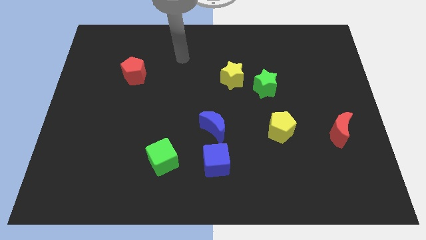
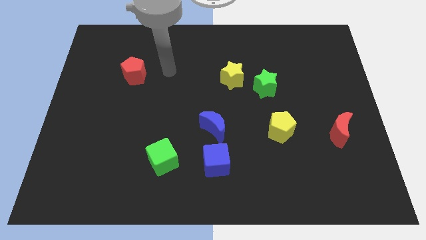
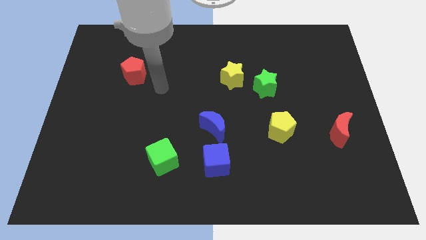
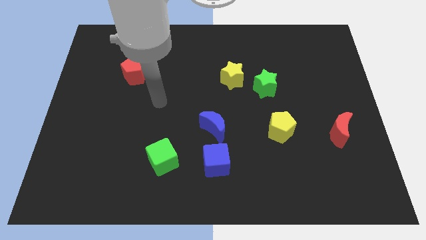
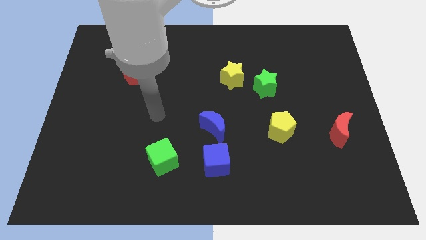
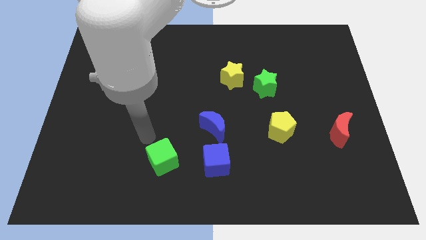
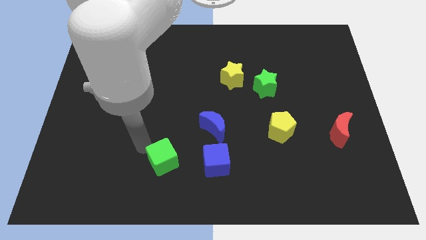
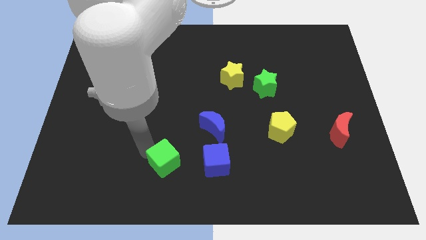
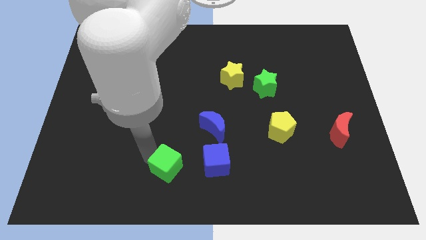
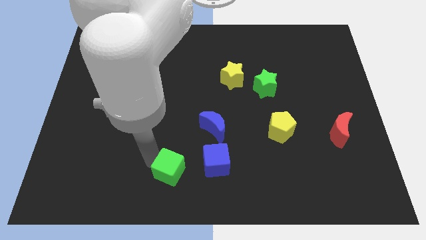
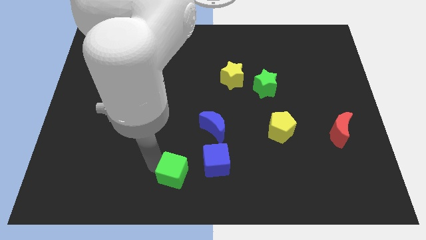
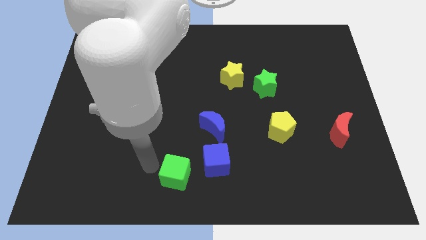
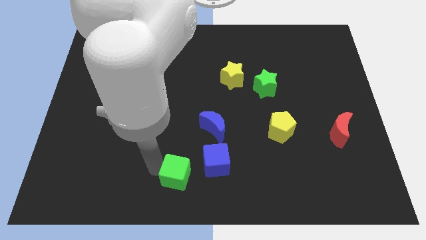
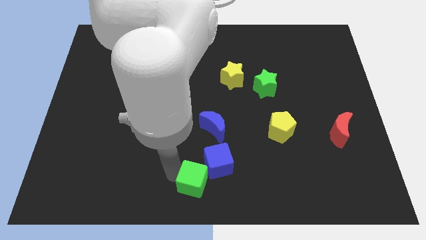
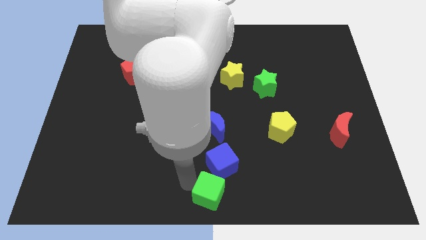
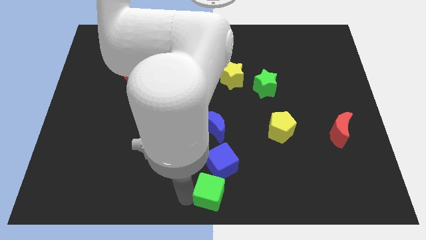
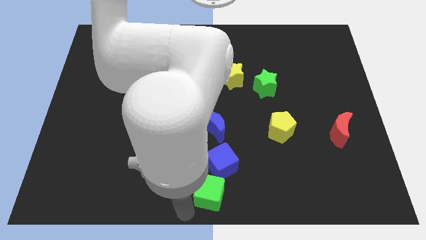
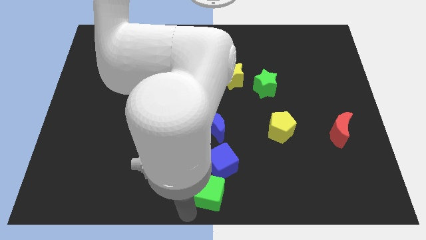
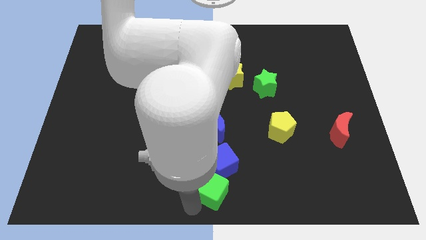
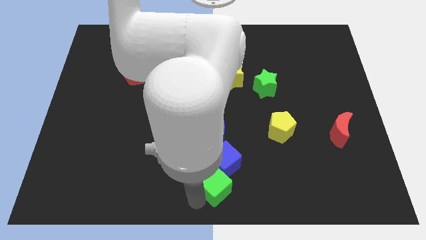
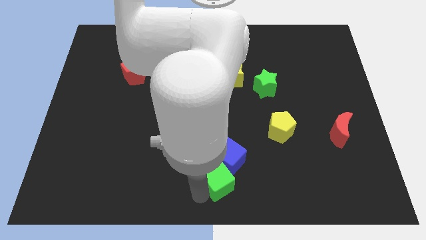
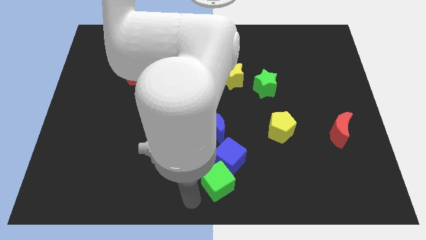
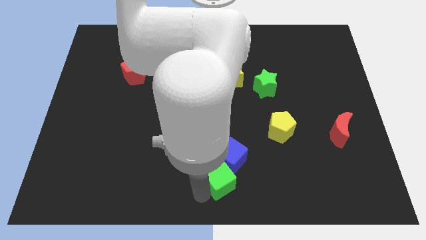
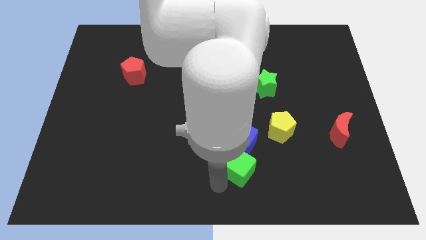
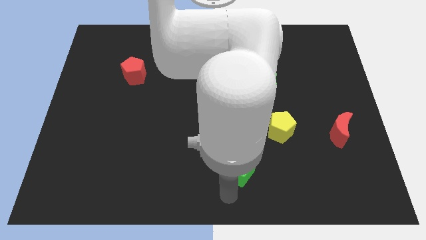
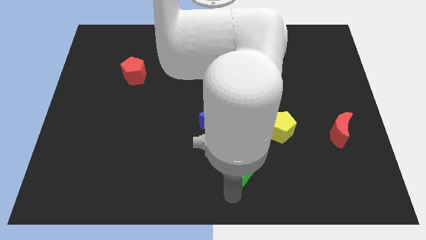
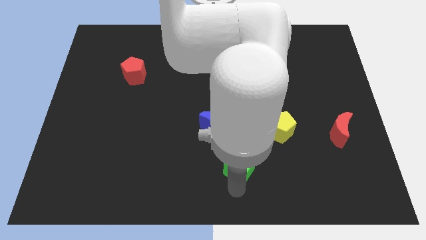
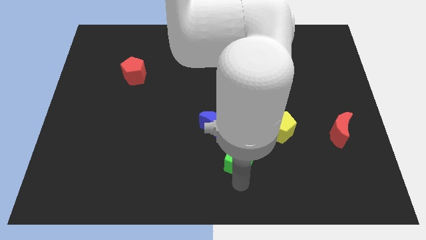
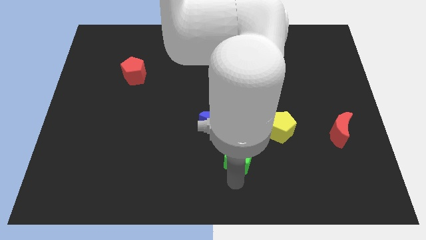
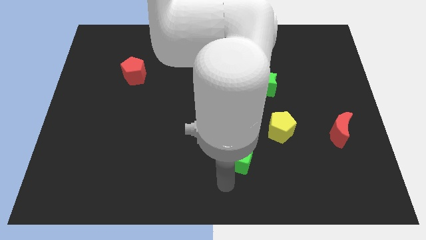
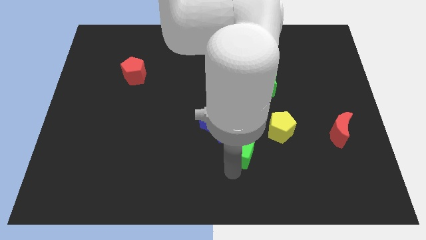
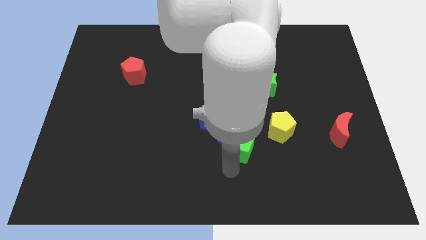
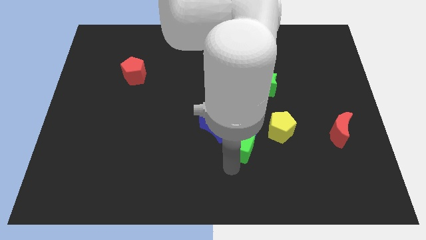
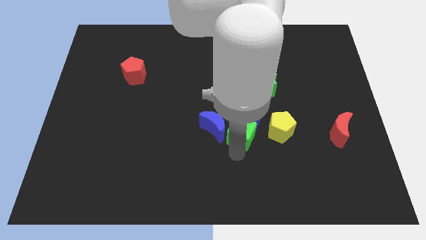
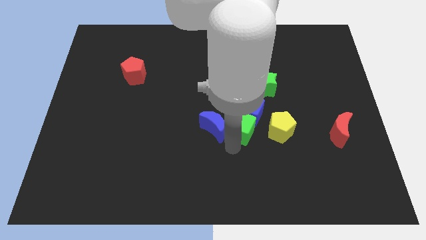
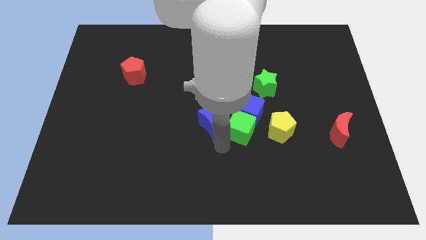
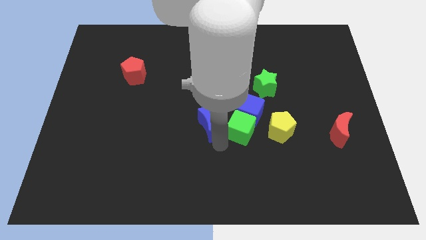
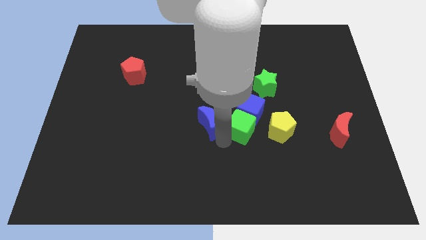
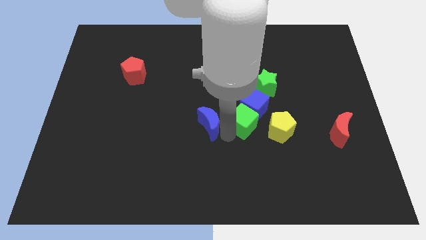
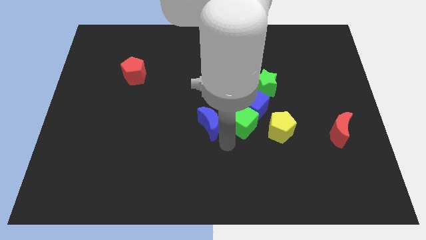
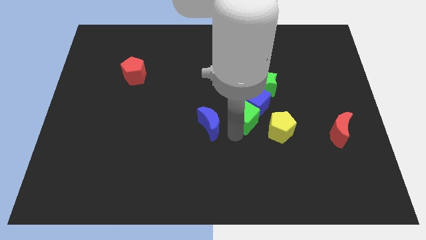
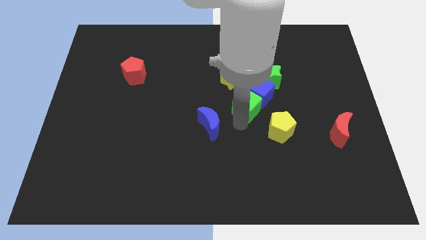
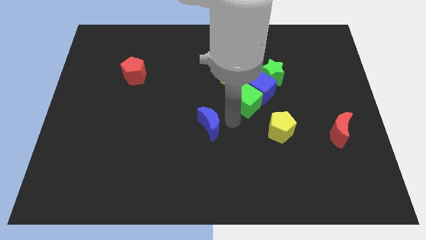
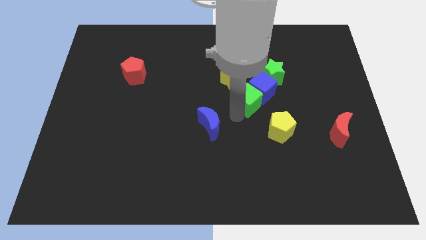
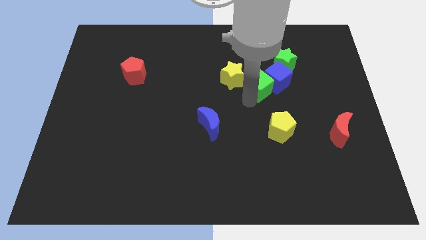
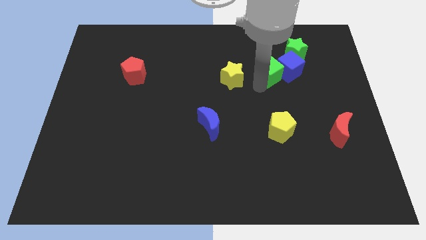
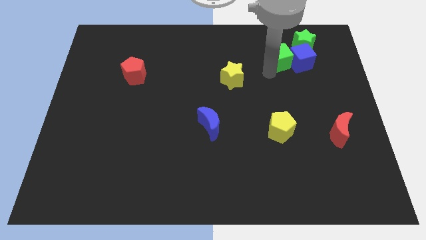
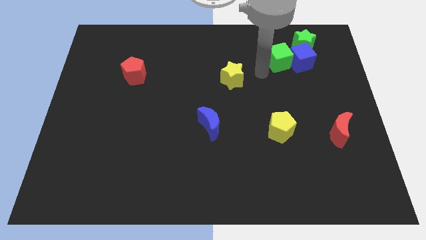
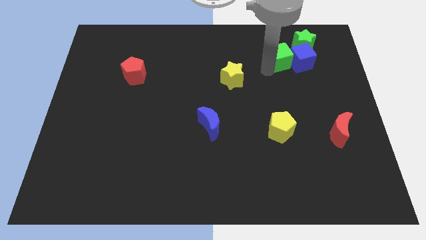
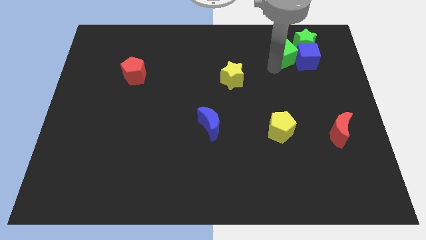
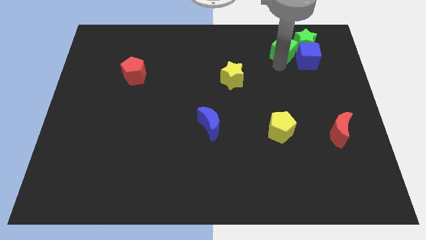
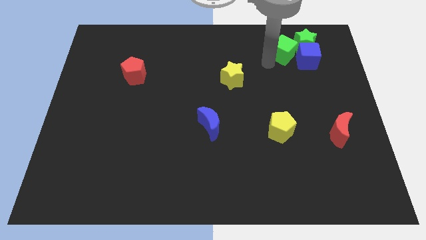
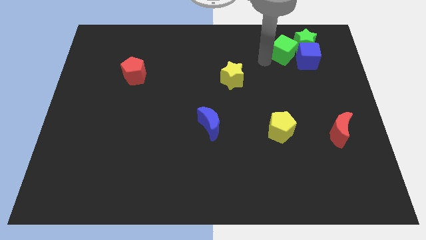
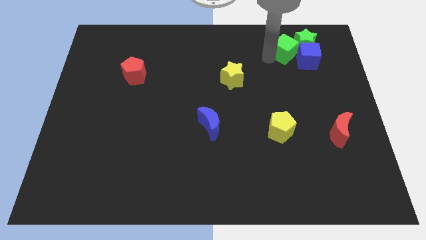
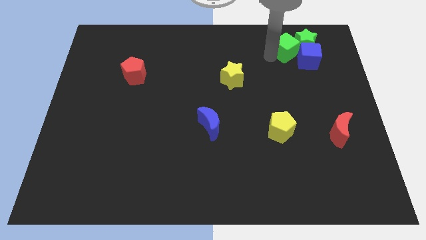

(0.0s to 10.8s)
put the green cube to the green star

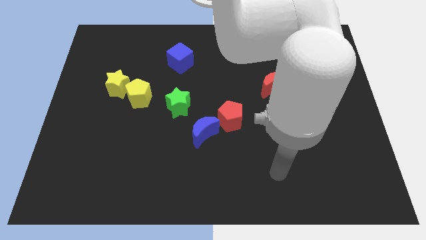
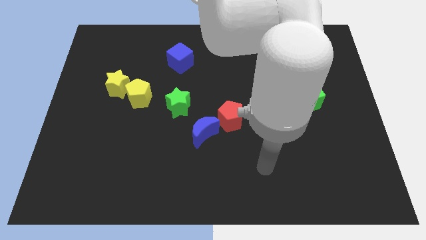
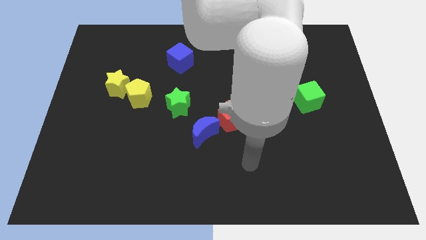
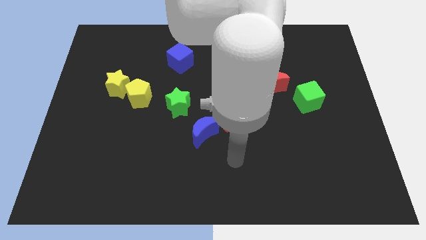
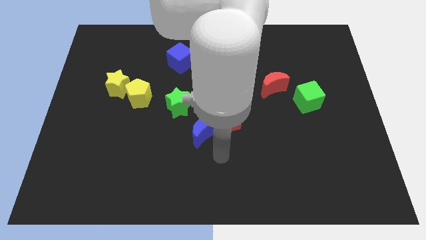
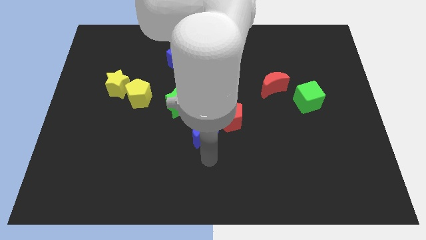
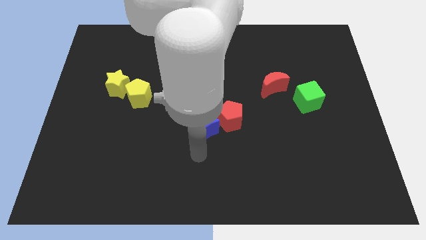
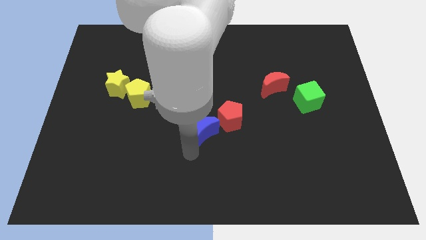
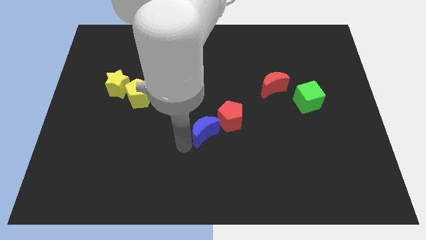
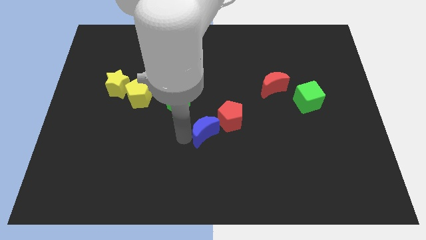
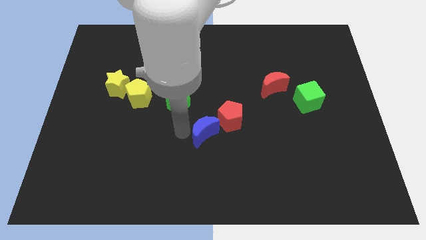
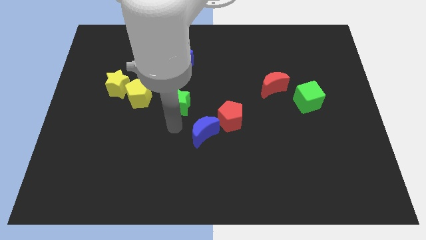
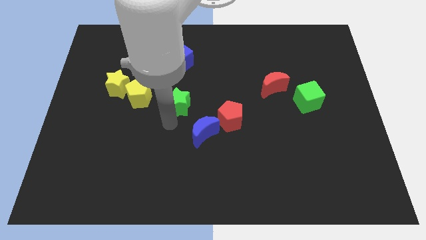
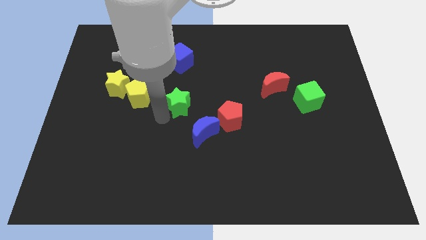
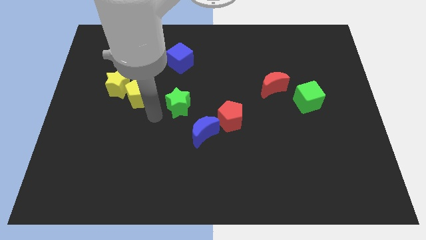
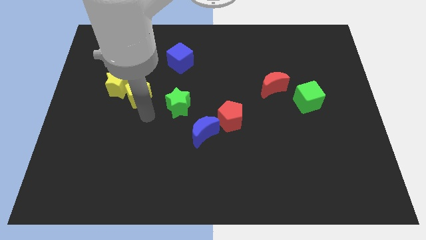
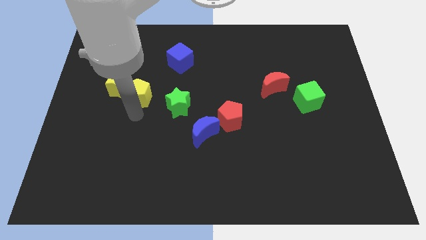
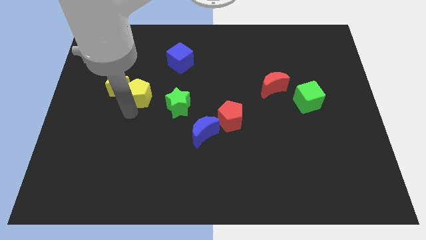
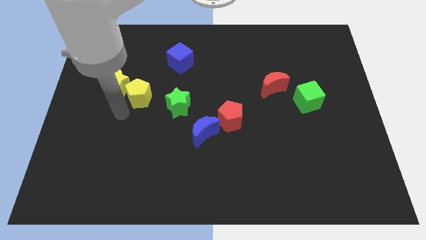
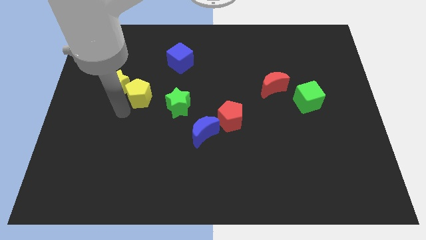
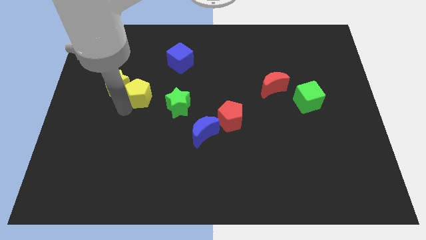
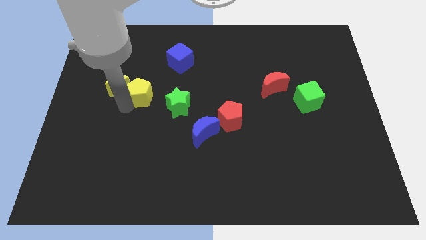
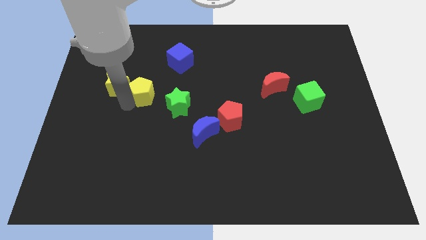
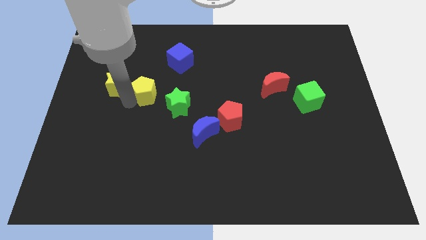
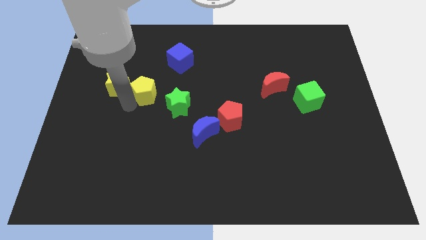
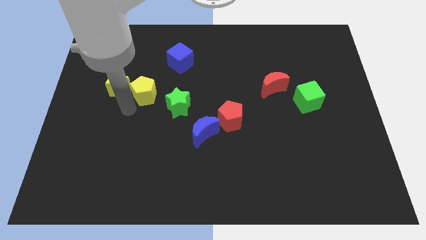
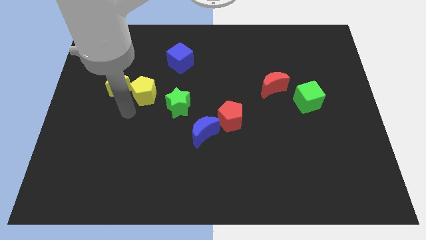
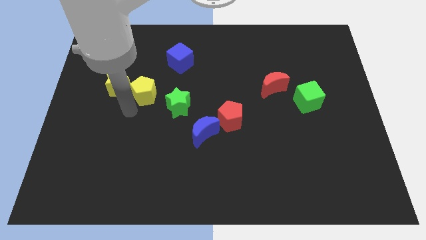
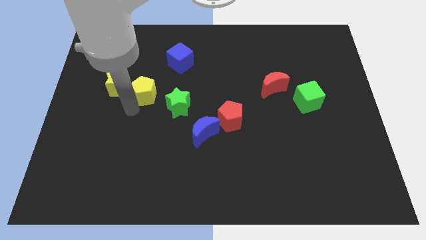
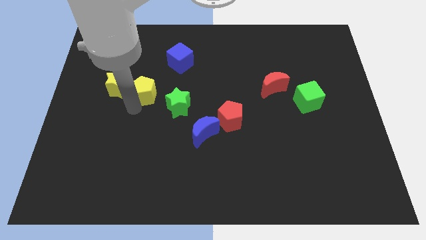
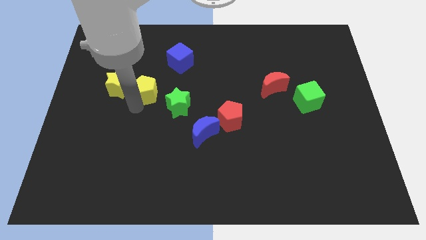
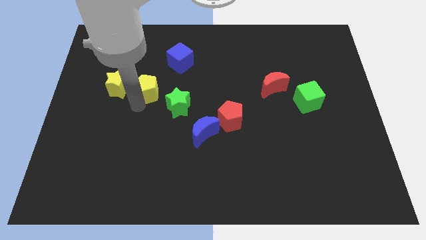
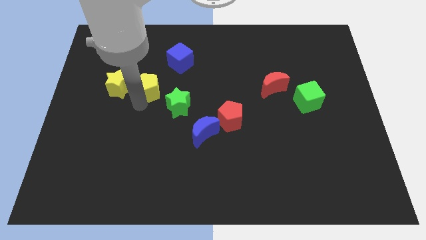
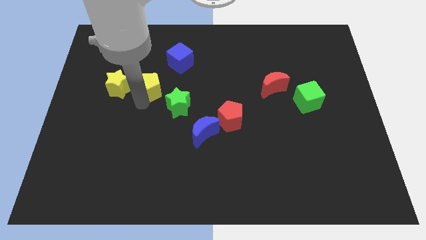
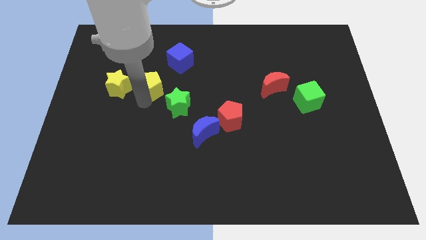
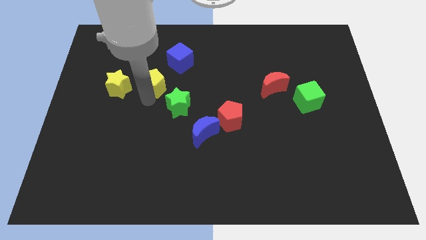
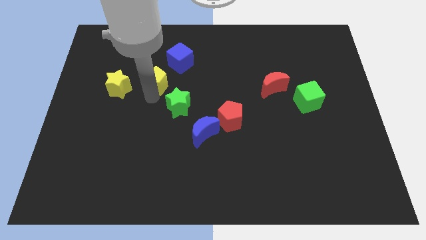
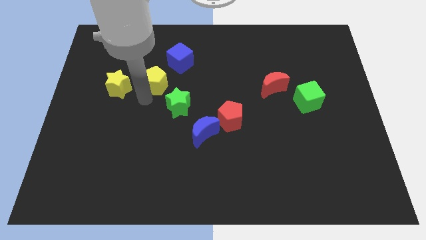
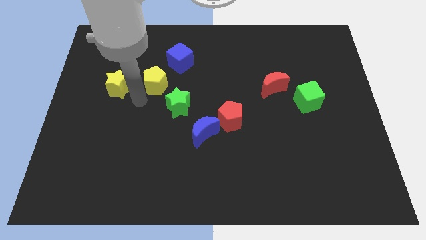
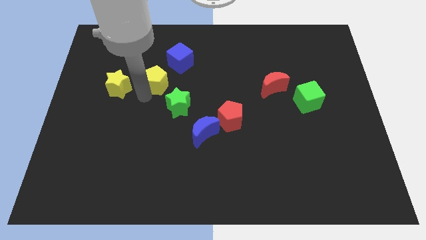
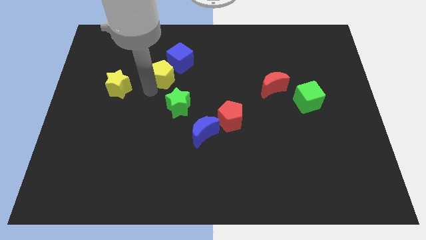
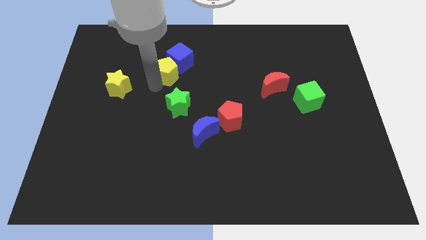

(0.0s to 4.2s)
push the yellow pentagon to the blue cube
